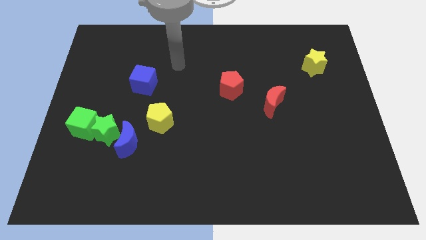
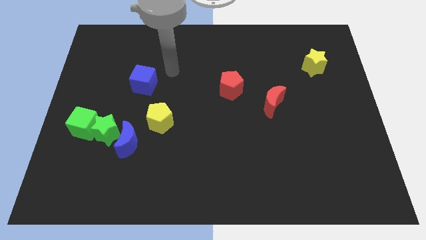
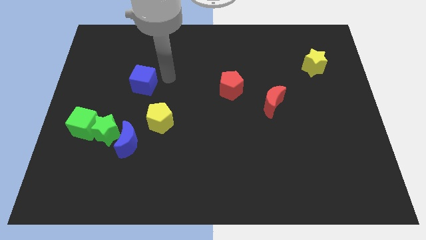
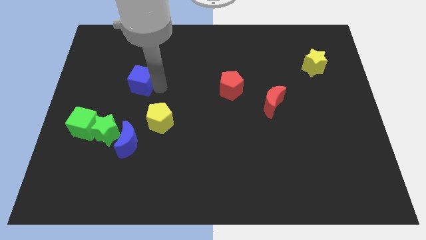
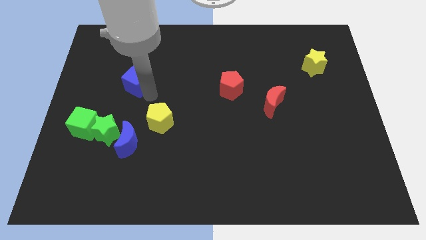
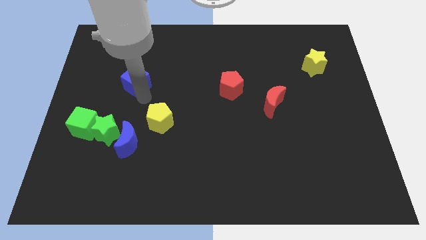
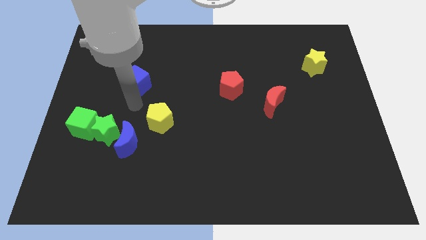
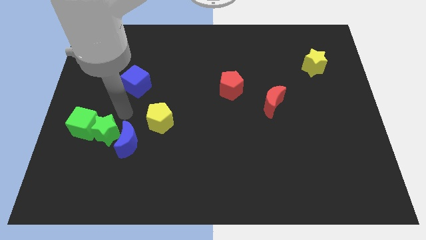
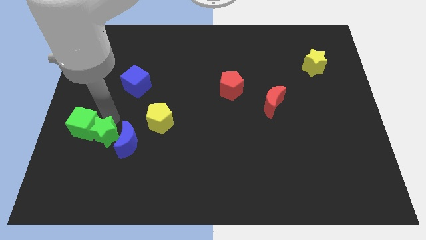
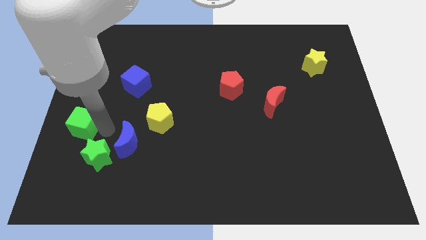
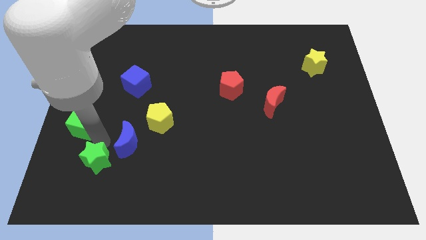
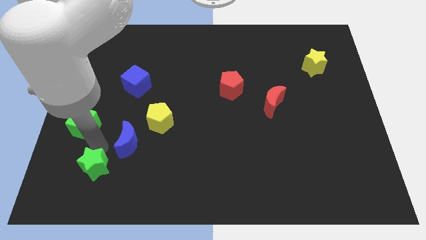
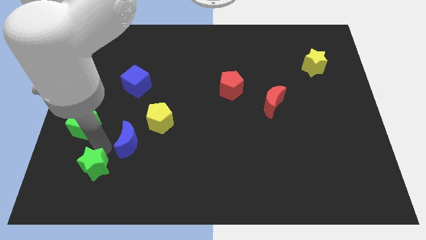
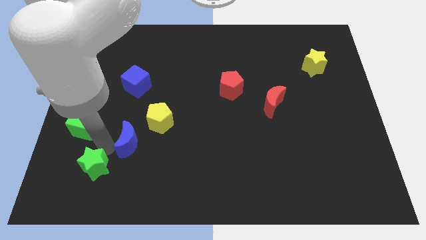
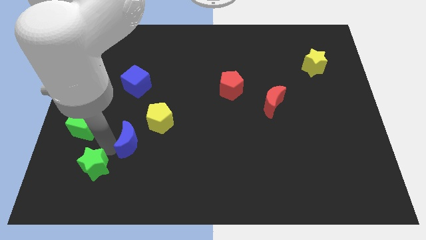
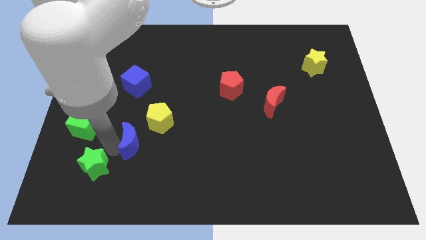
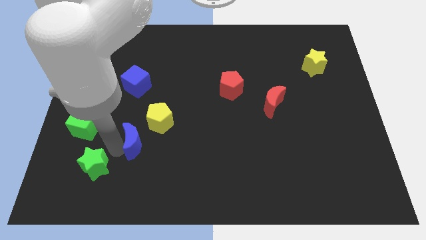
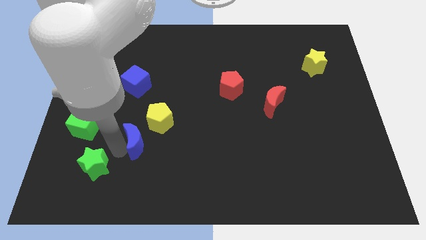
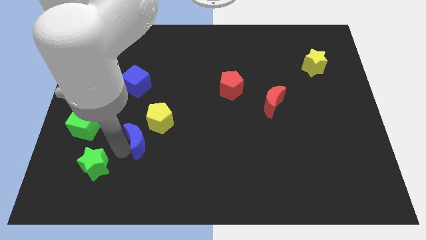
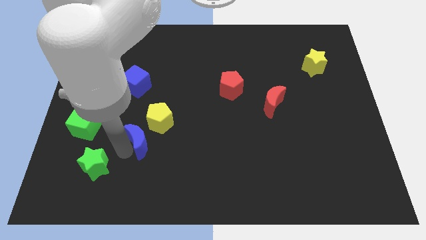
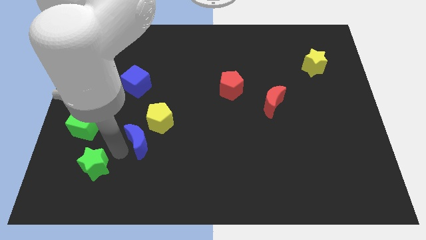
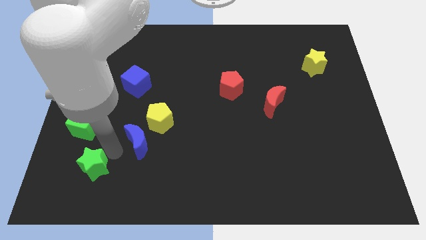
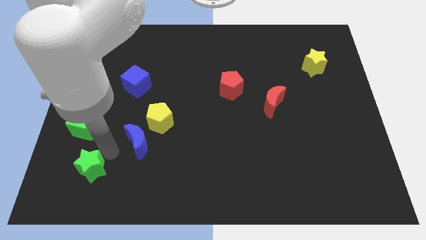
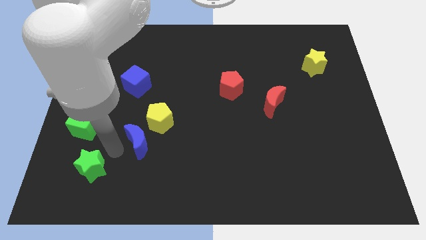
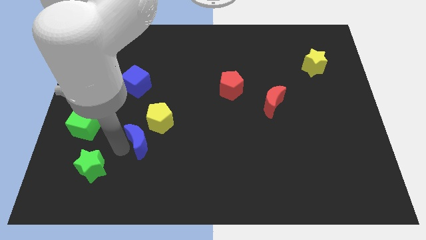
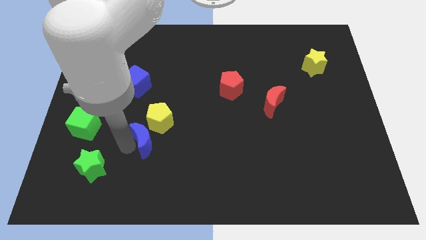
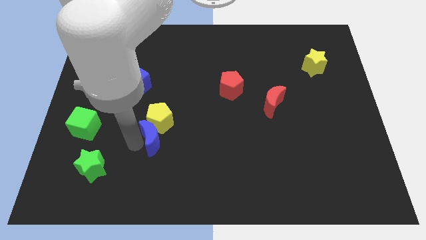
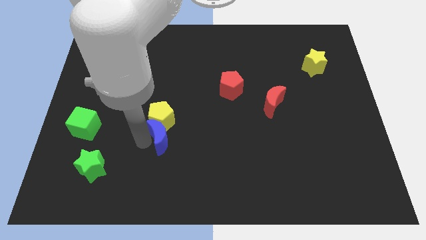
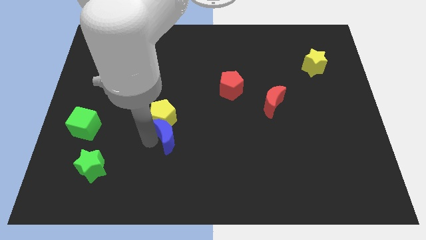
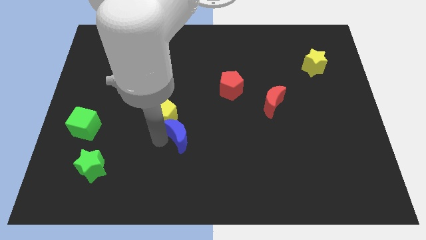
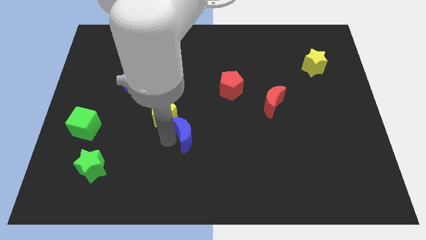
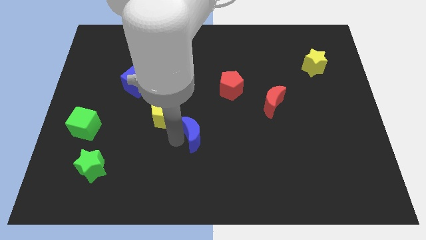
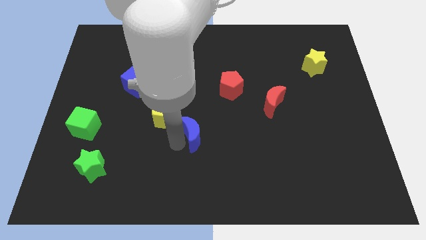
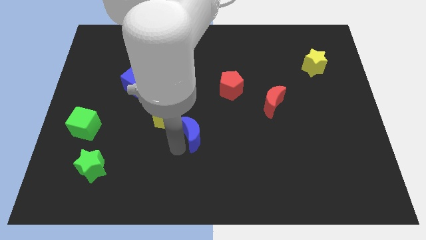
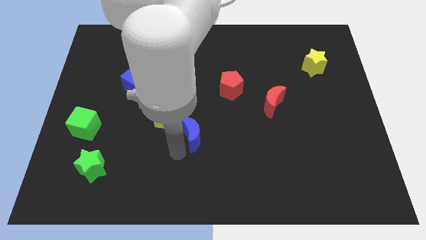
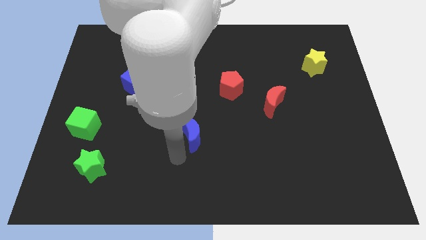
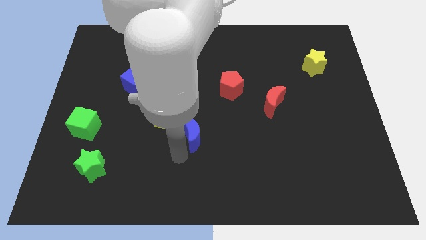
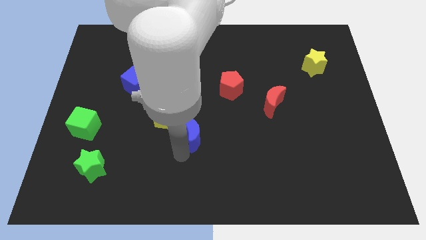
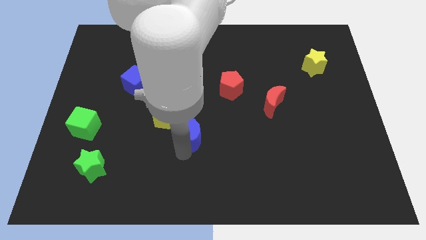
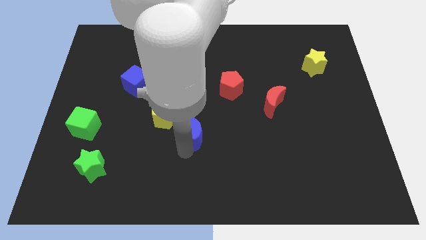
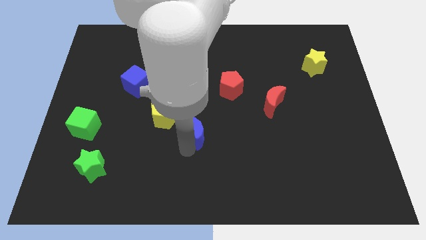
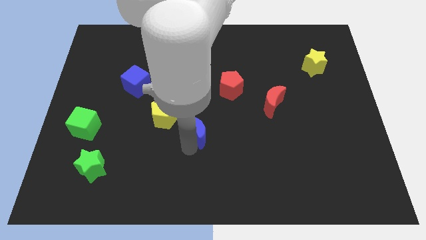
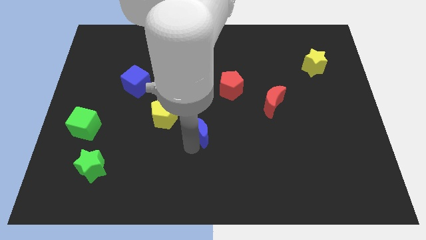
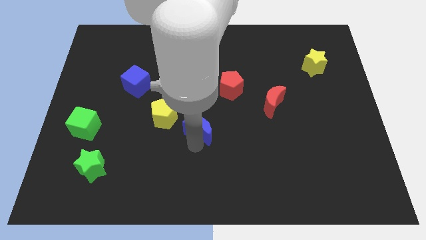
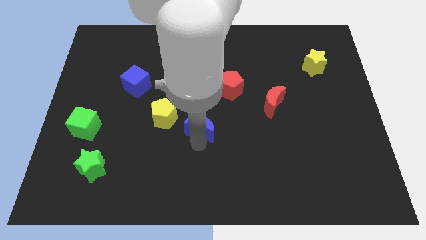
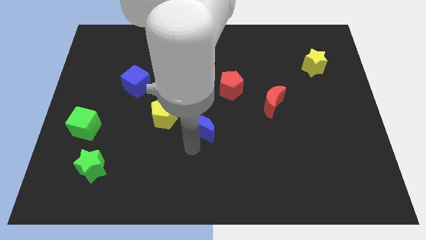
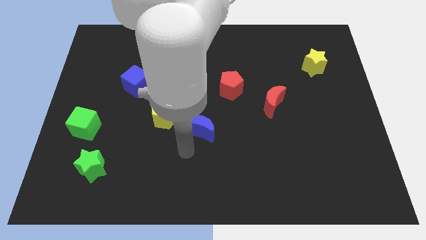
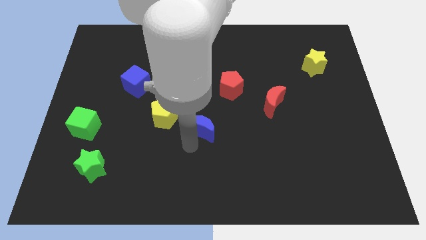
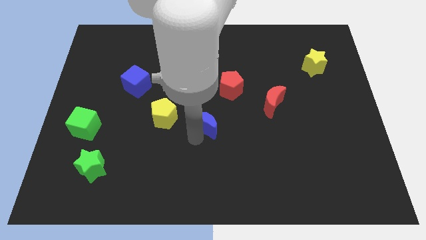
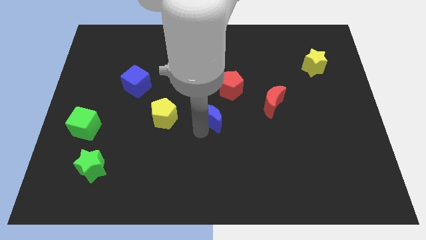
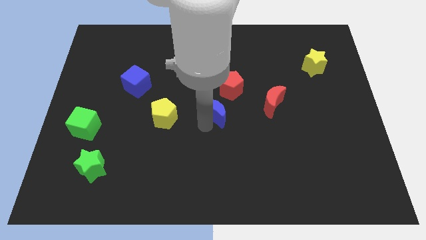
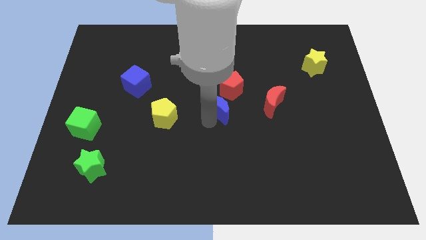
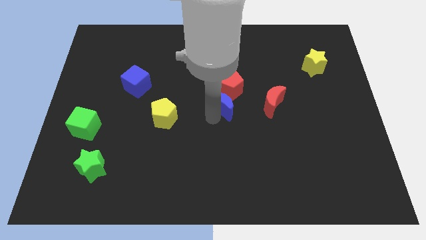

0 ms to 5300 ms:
put the blue moon next to the red pentagon

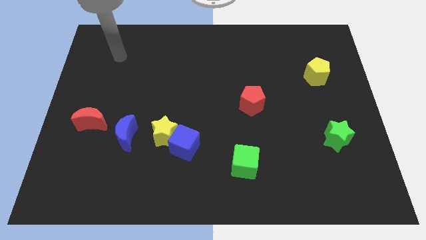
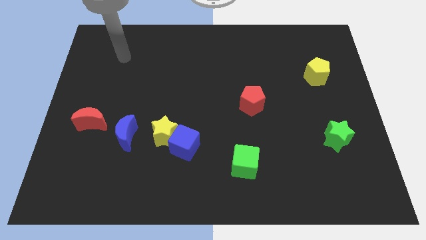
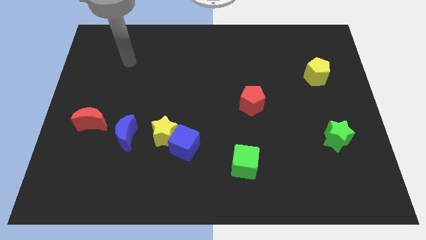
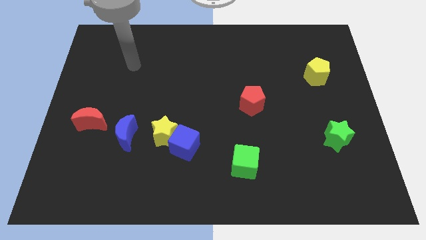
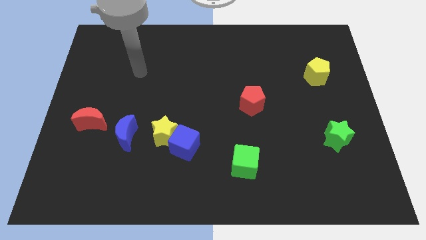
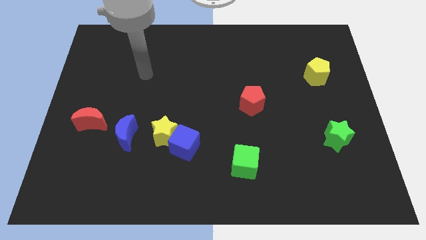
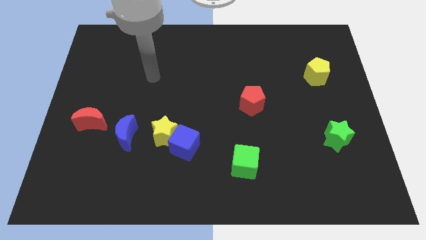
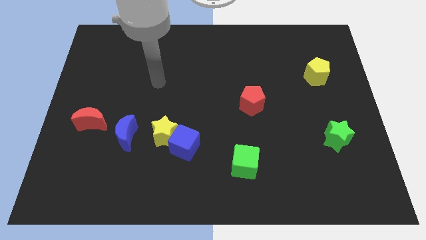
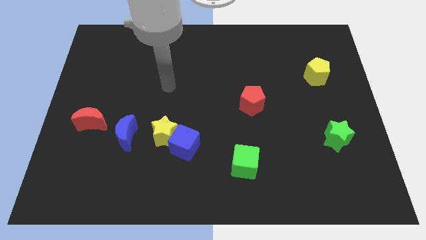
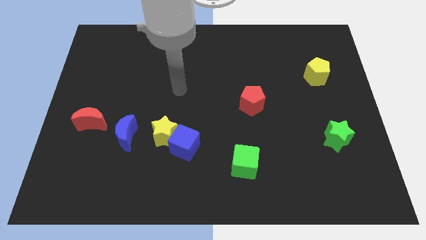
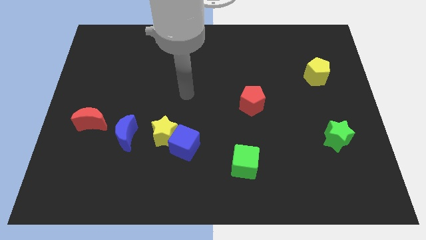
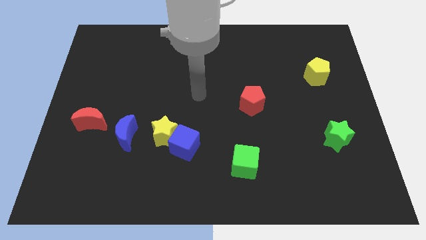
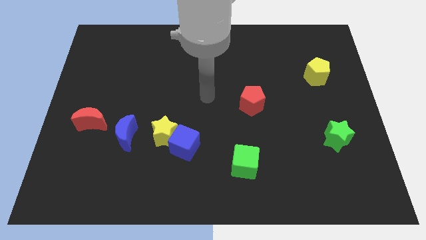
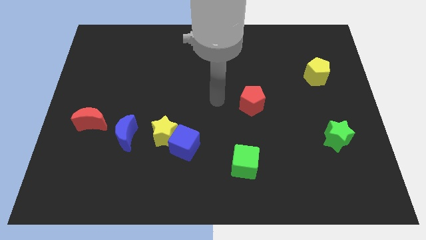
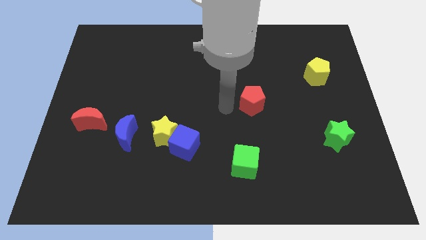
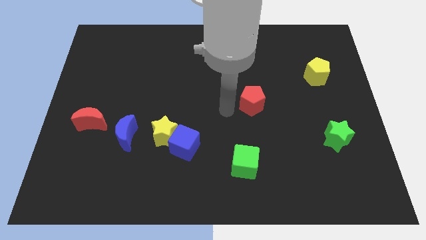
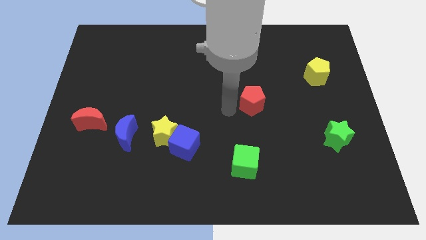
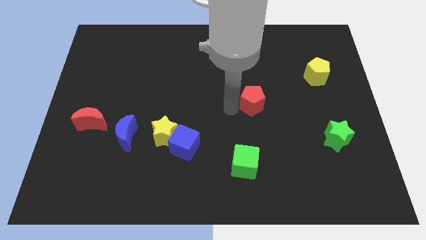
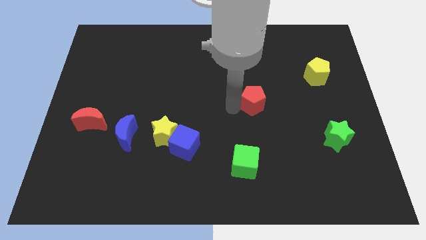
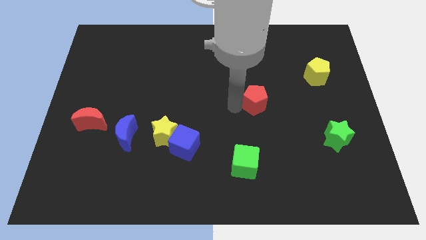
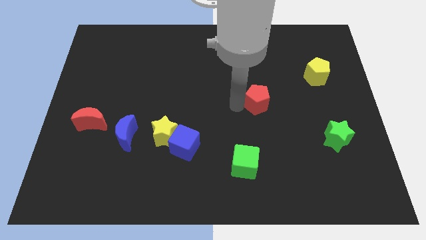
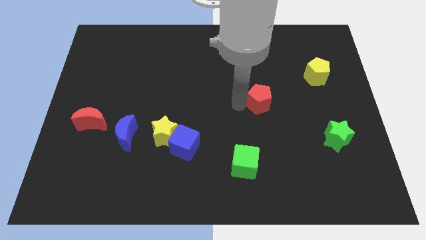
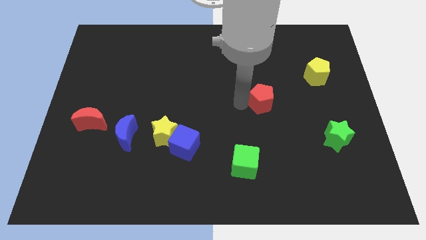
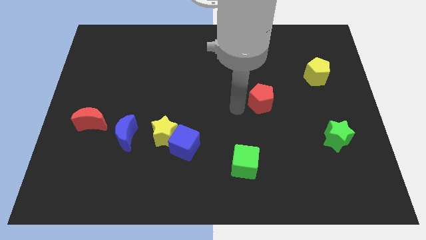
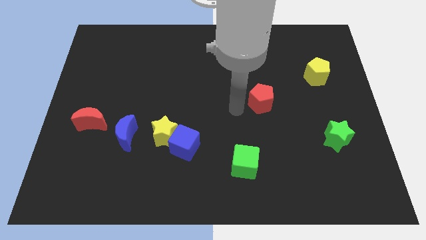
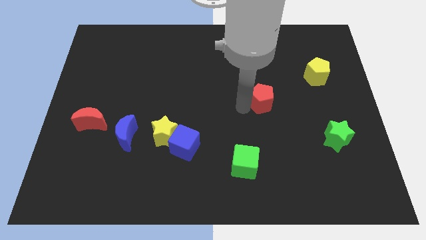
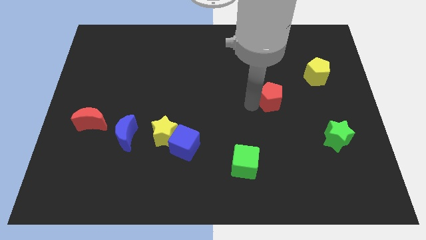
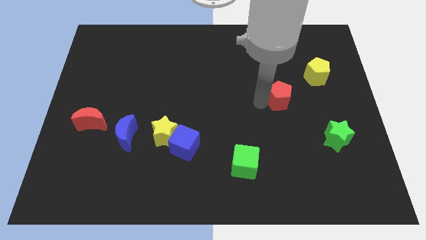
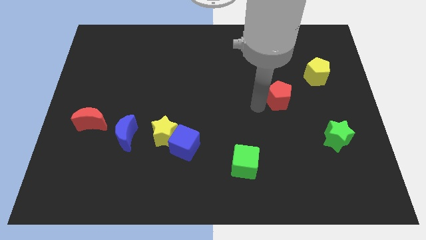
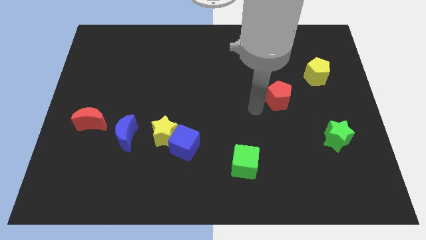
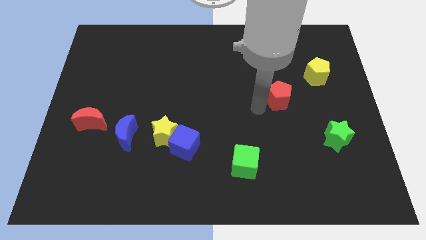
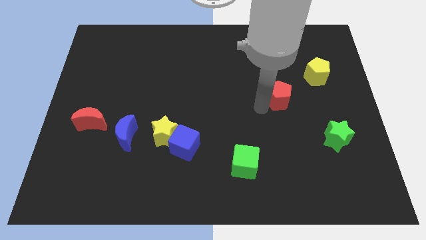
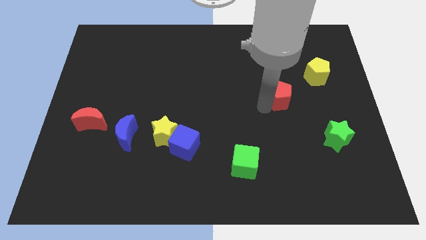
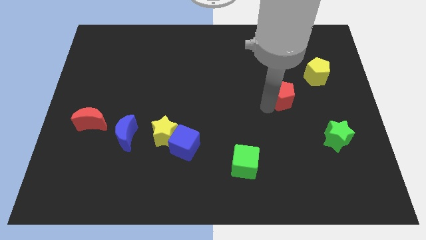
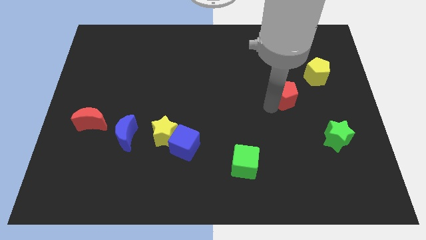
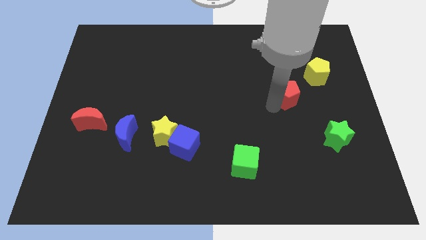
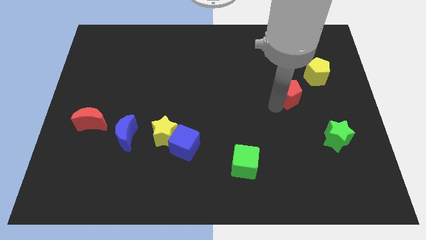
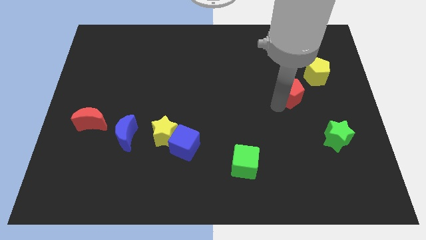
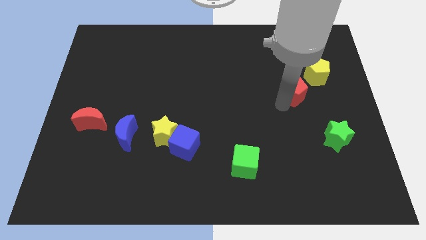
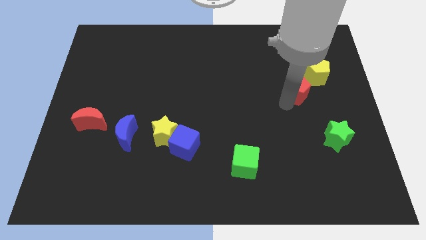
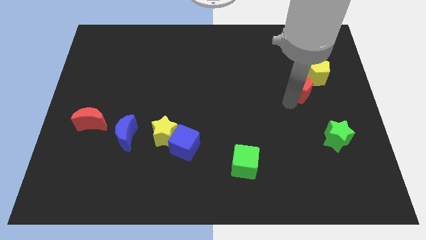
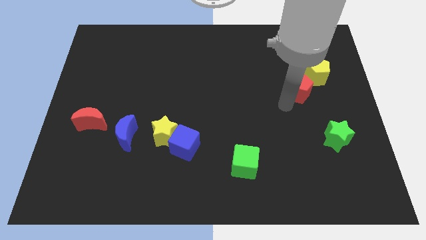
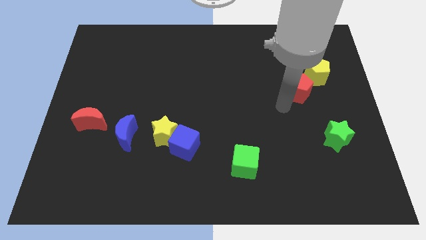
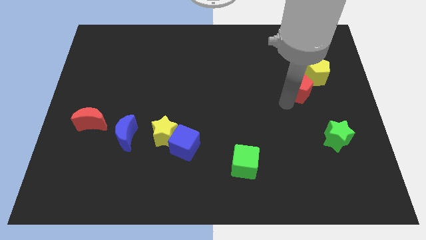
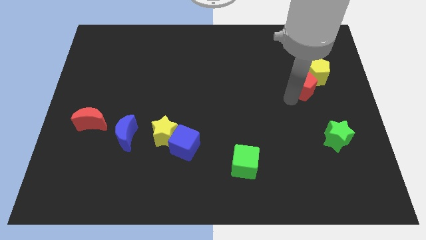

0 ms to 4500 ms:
move the red pentagon close to the yellow pentagon
